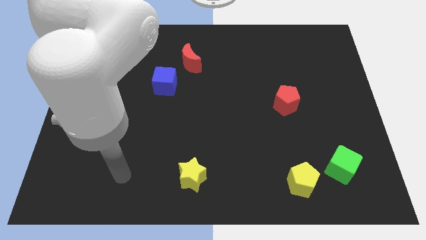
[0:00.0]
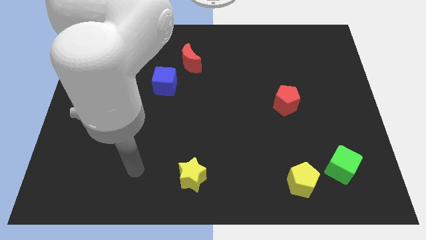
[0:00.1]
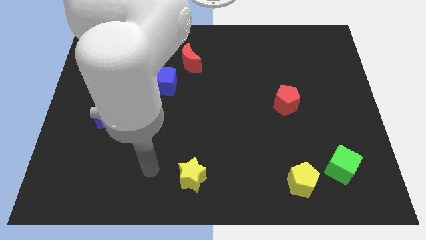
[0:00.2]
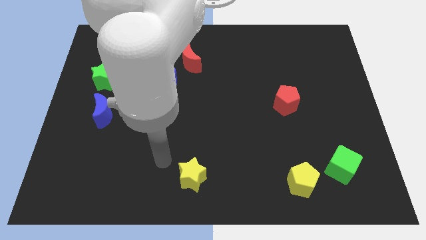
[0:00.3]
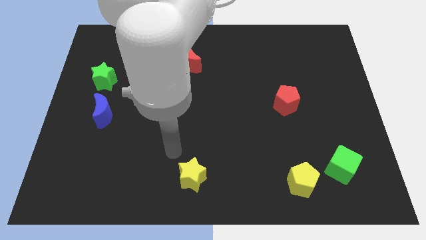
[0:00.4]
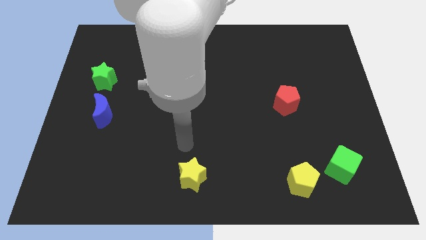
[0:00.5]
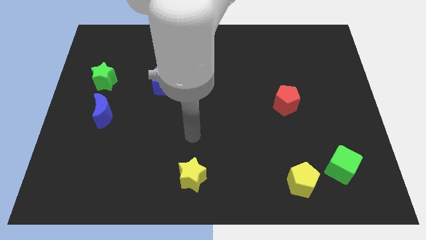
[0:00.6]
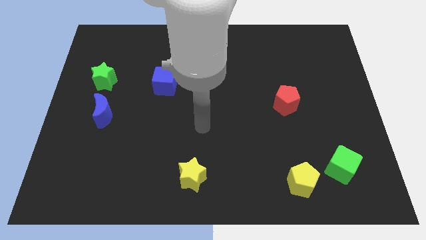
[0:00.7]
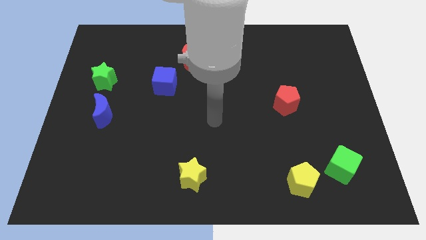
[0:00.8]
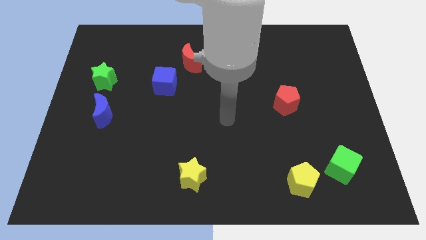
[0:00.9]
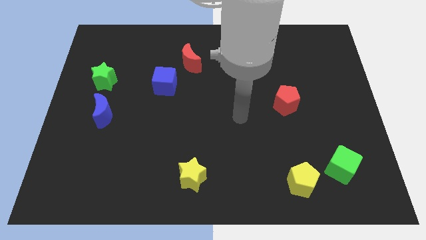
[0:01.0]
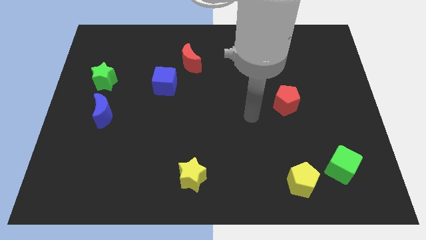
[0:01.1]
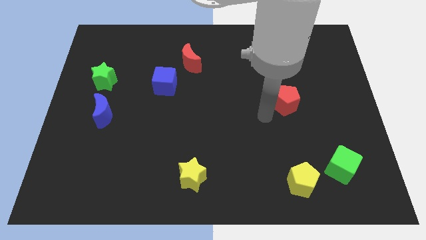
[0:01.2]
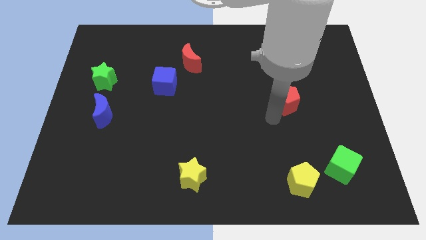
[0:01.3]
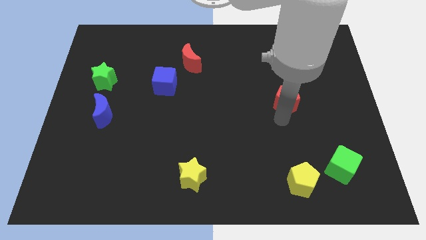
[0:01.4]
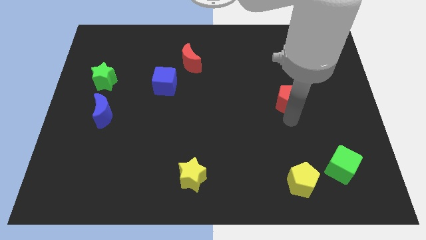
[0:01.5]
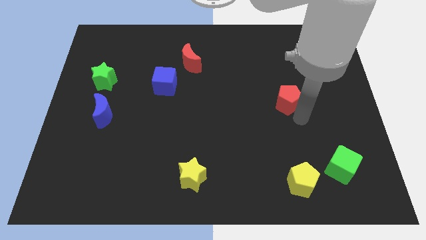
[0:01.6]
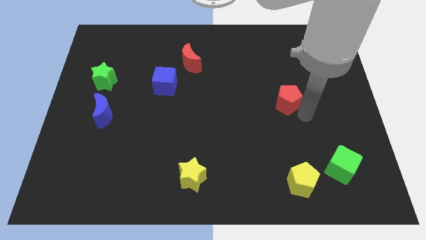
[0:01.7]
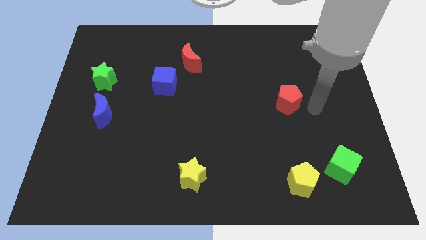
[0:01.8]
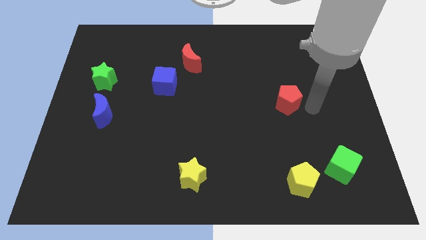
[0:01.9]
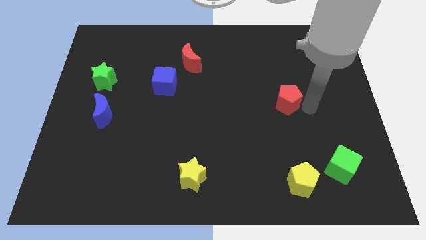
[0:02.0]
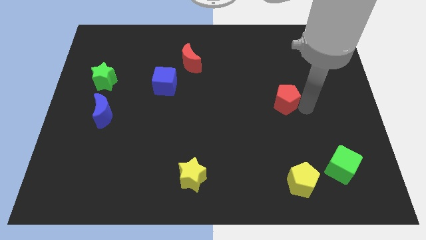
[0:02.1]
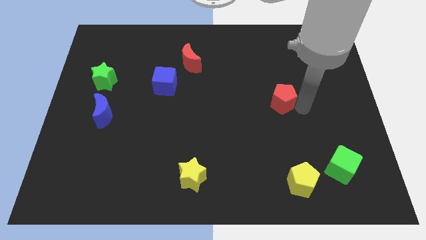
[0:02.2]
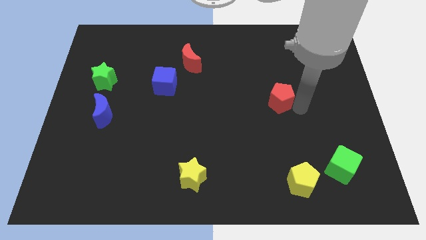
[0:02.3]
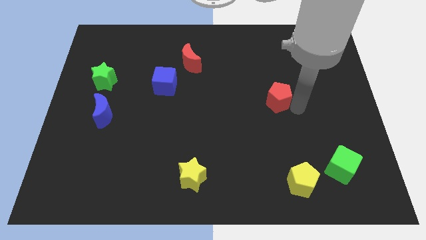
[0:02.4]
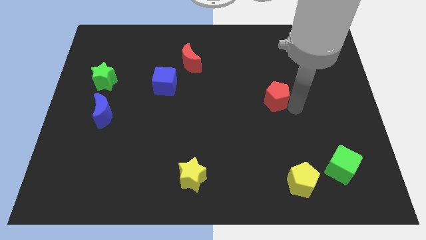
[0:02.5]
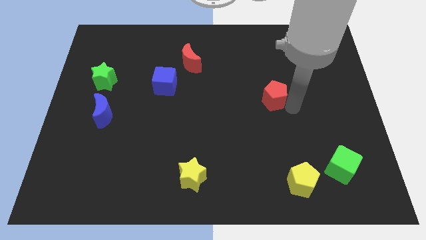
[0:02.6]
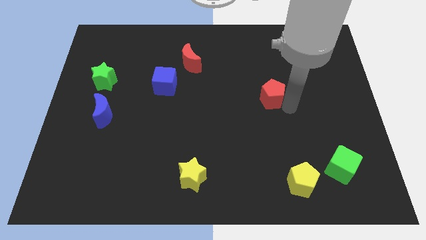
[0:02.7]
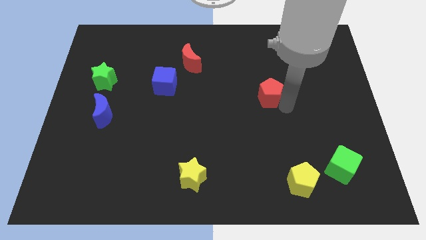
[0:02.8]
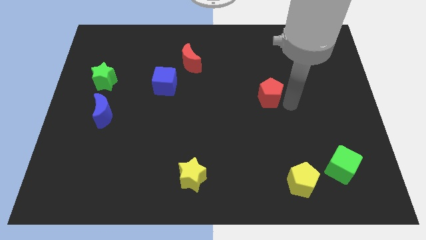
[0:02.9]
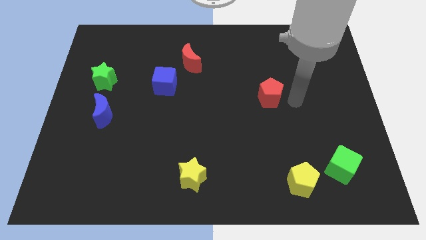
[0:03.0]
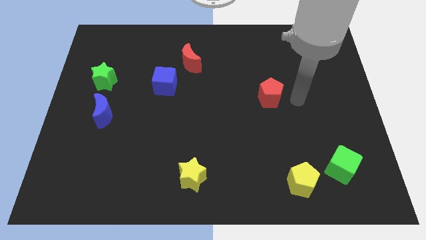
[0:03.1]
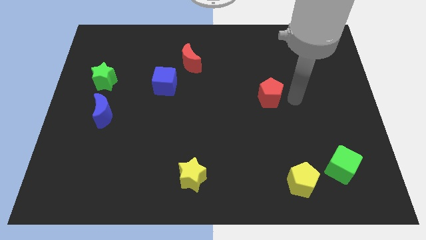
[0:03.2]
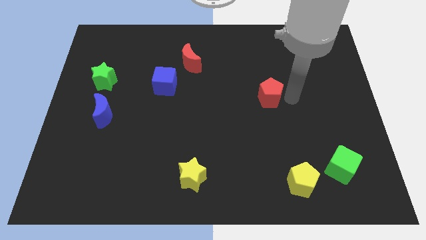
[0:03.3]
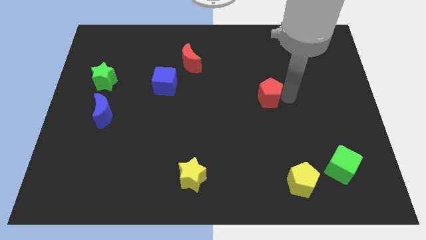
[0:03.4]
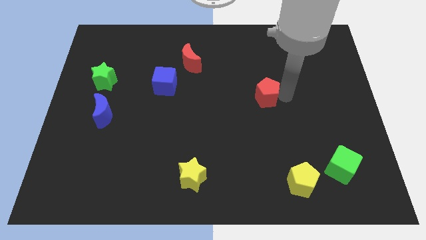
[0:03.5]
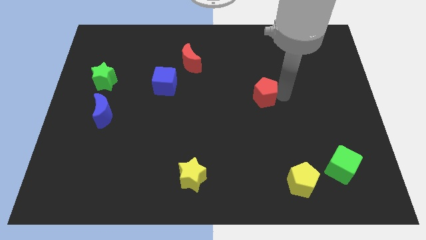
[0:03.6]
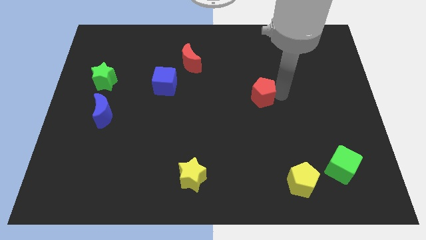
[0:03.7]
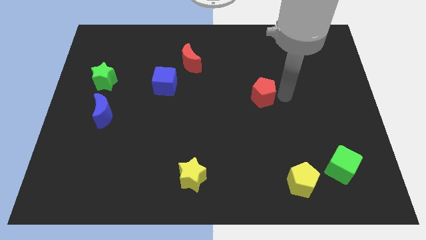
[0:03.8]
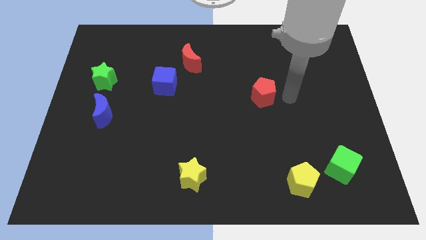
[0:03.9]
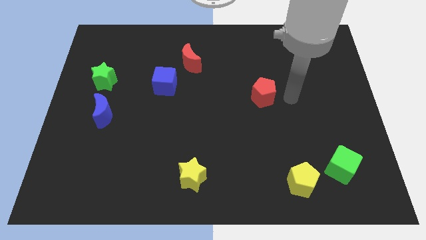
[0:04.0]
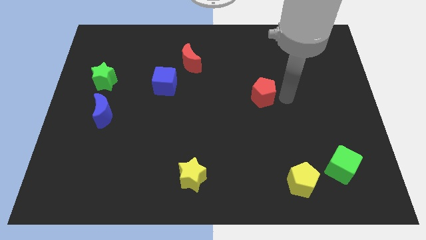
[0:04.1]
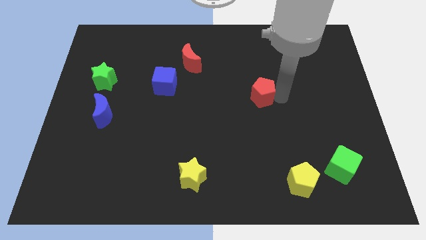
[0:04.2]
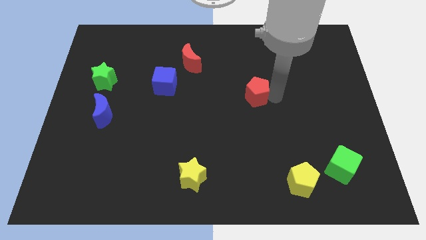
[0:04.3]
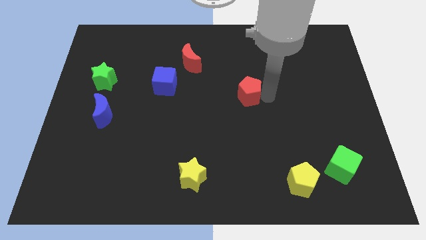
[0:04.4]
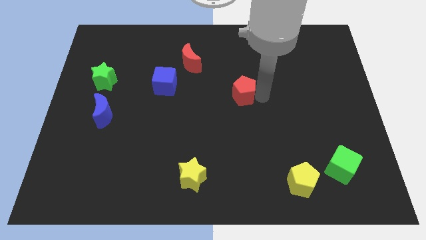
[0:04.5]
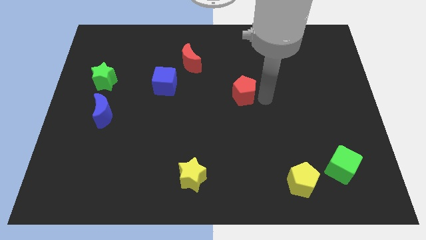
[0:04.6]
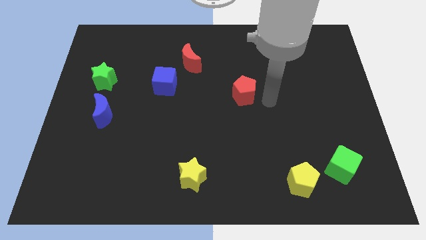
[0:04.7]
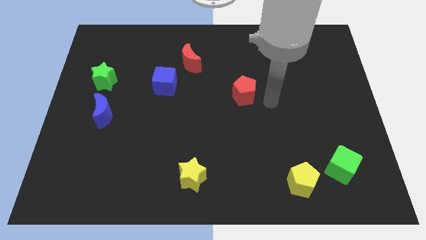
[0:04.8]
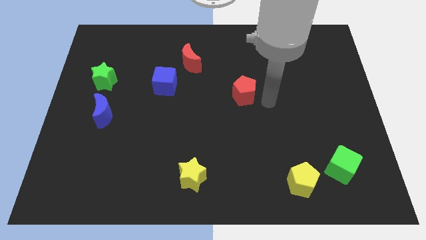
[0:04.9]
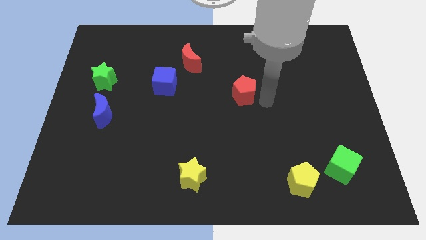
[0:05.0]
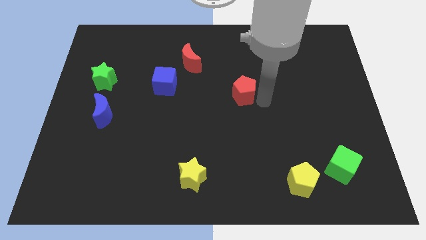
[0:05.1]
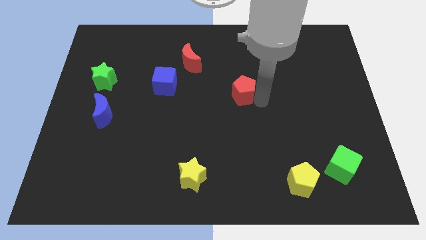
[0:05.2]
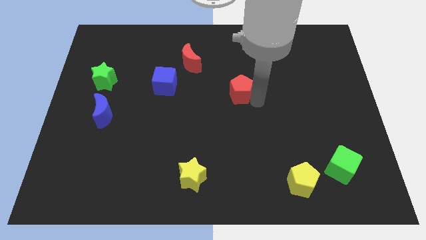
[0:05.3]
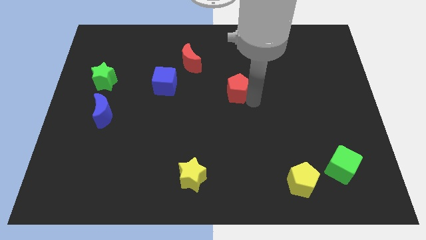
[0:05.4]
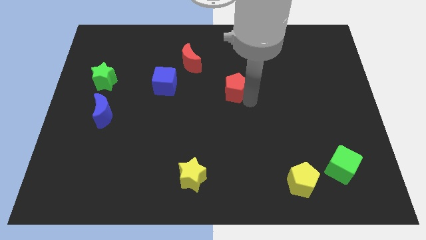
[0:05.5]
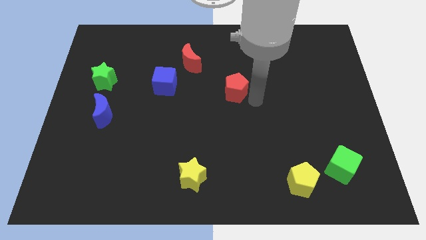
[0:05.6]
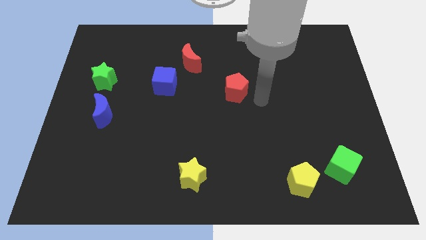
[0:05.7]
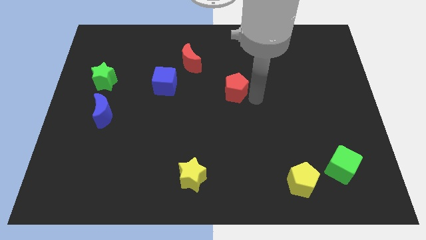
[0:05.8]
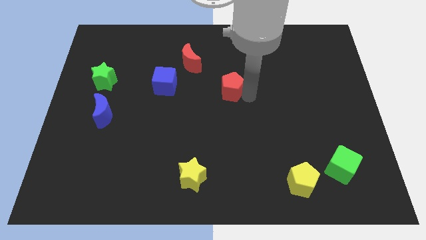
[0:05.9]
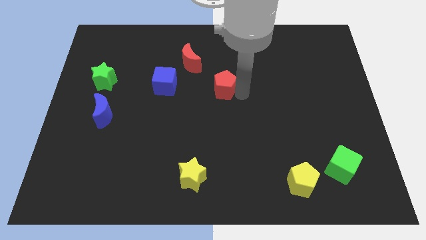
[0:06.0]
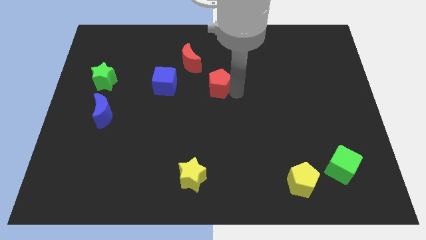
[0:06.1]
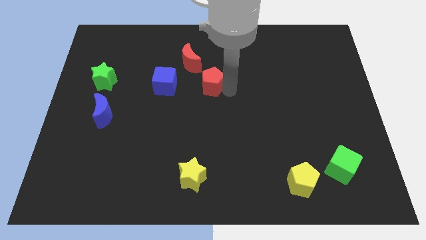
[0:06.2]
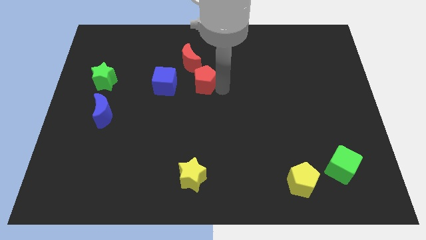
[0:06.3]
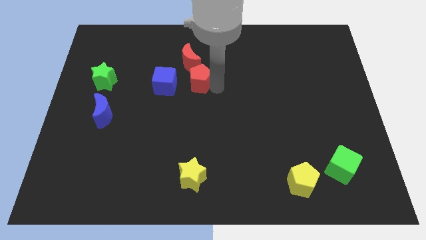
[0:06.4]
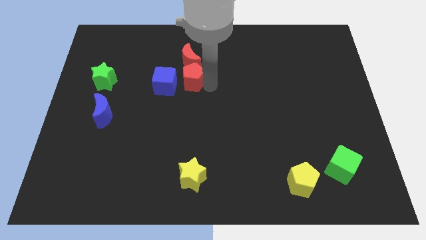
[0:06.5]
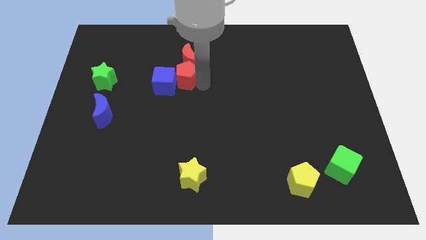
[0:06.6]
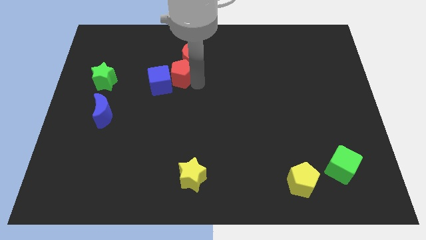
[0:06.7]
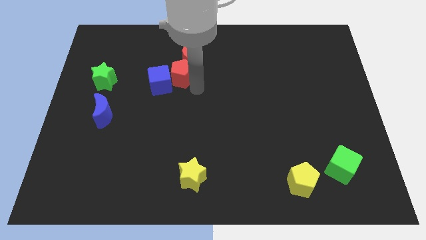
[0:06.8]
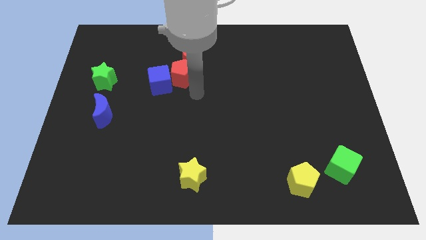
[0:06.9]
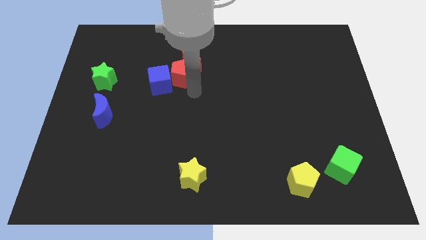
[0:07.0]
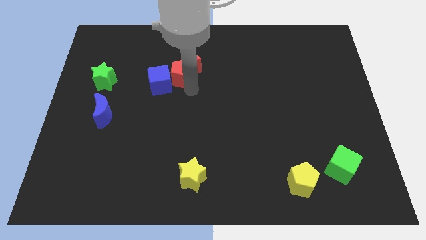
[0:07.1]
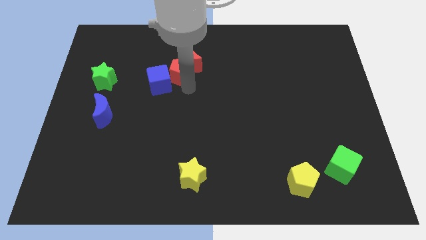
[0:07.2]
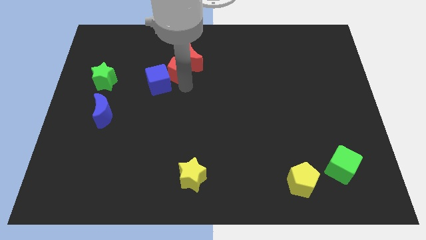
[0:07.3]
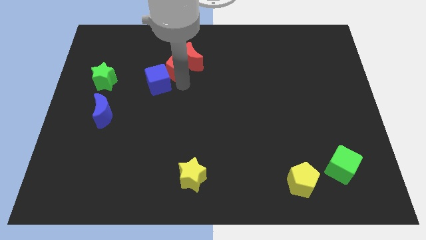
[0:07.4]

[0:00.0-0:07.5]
put the red pentagon to the top of the blue cube
